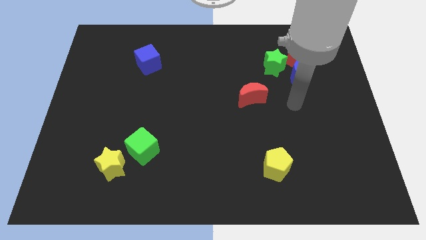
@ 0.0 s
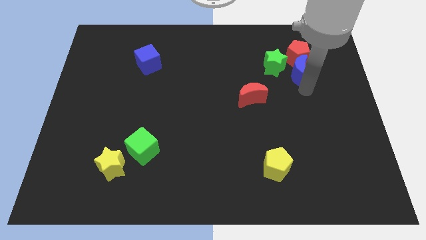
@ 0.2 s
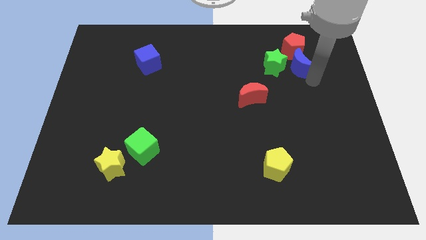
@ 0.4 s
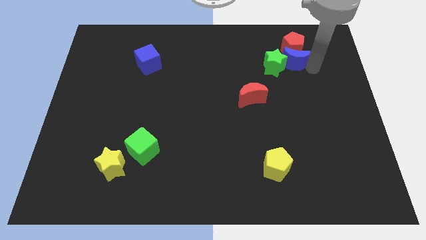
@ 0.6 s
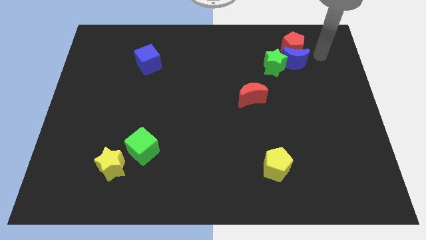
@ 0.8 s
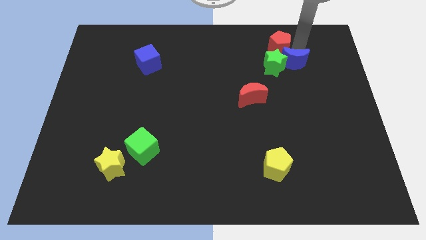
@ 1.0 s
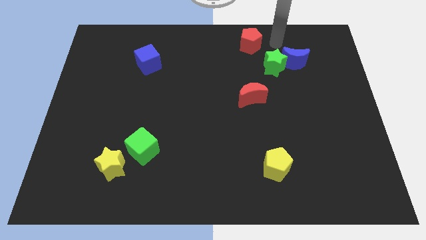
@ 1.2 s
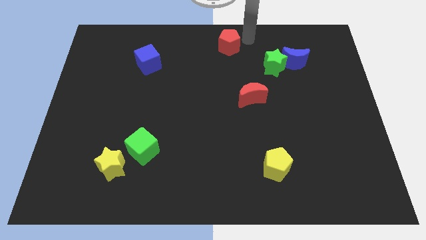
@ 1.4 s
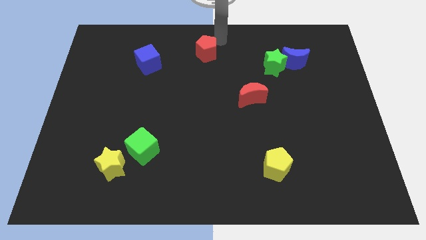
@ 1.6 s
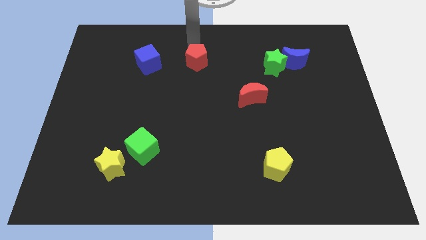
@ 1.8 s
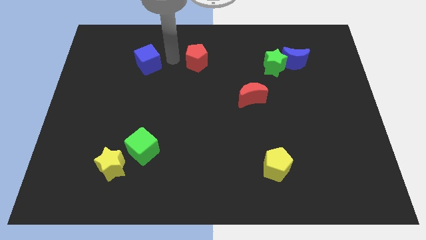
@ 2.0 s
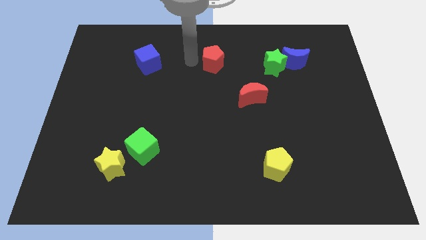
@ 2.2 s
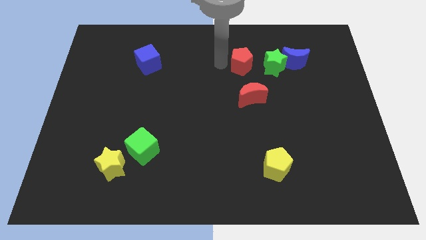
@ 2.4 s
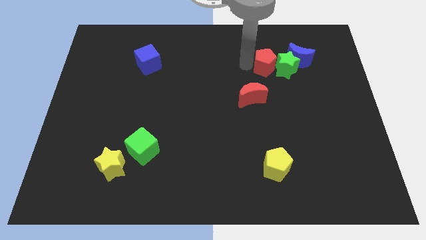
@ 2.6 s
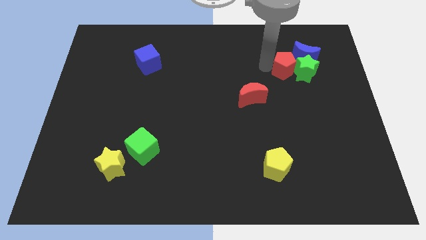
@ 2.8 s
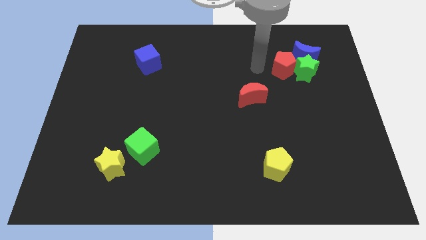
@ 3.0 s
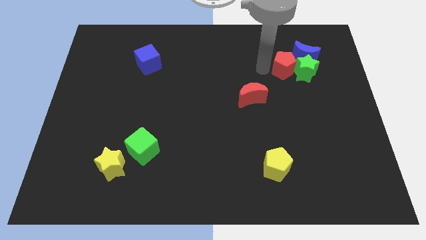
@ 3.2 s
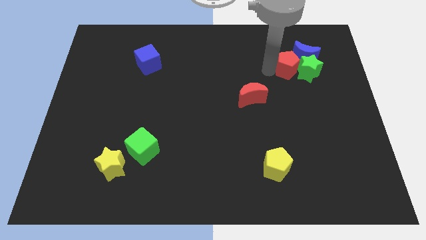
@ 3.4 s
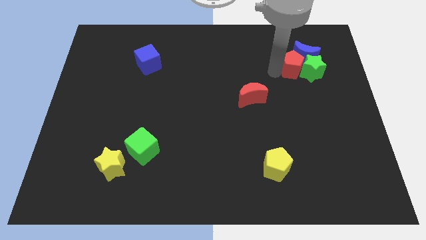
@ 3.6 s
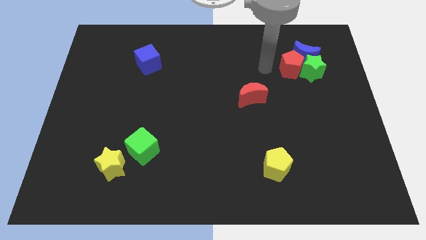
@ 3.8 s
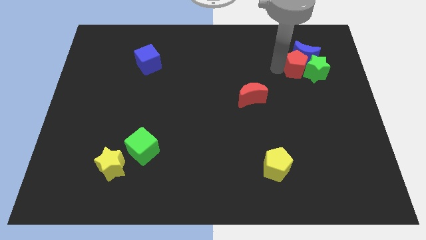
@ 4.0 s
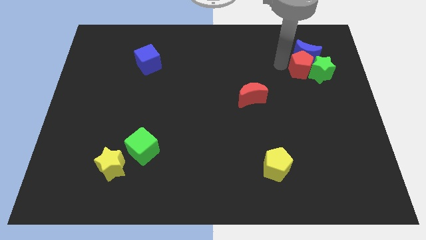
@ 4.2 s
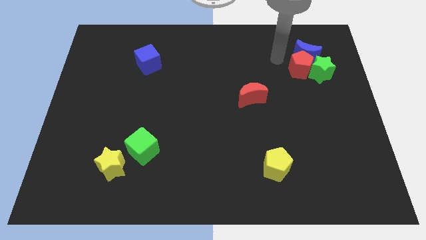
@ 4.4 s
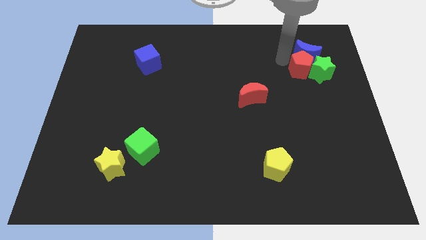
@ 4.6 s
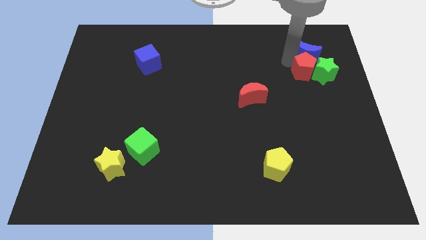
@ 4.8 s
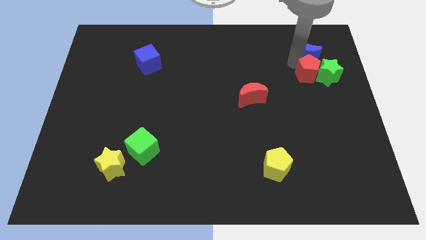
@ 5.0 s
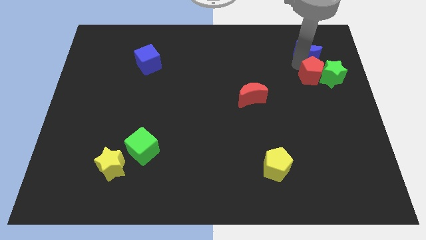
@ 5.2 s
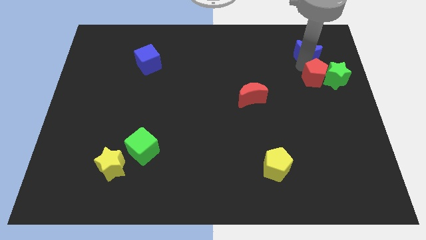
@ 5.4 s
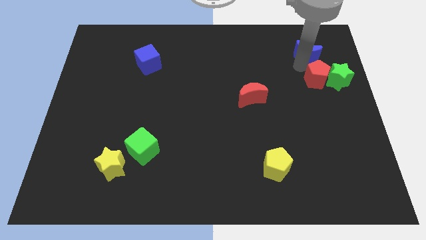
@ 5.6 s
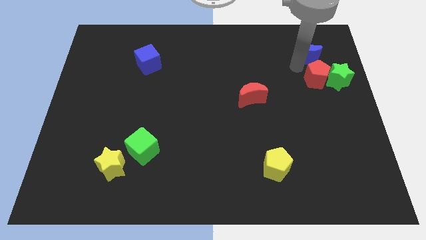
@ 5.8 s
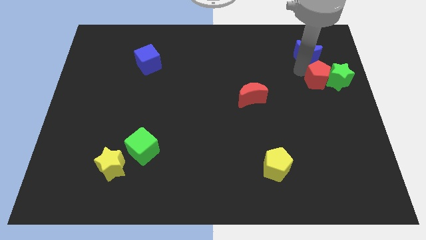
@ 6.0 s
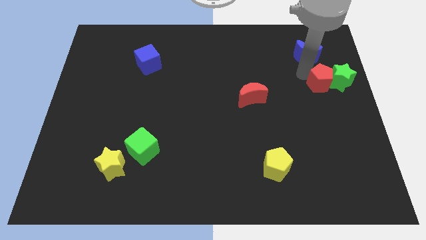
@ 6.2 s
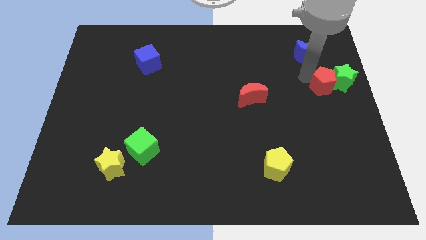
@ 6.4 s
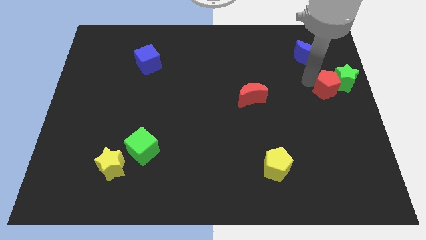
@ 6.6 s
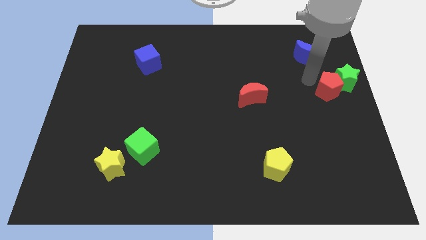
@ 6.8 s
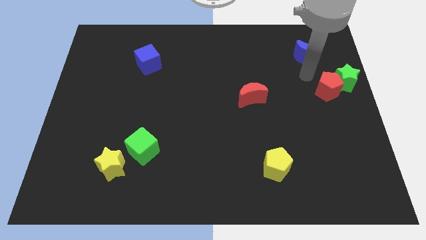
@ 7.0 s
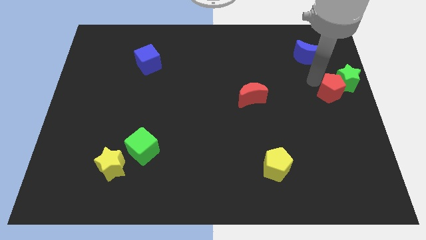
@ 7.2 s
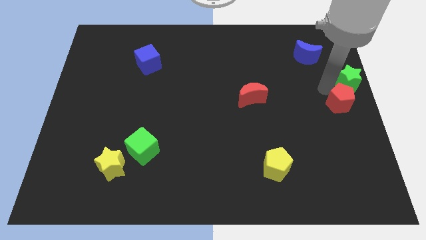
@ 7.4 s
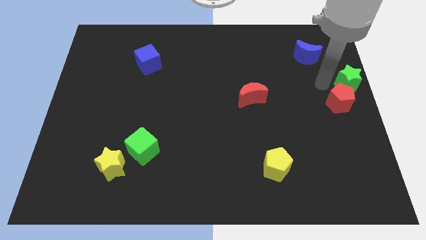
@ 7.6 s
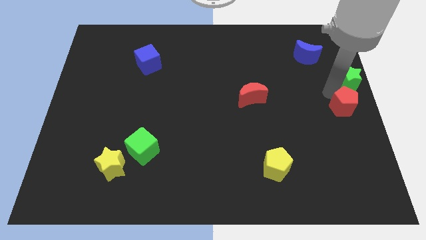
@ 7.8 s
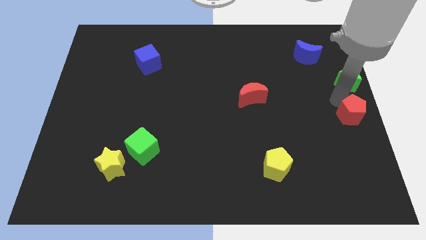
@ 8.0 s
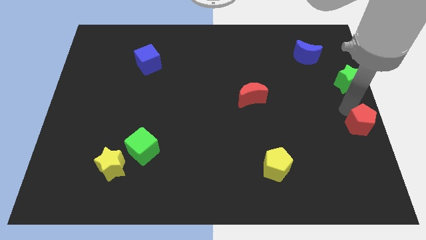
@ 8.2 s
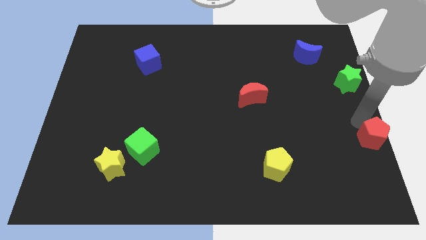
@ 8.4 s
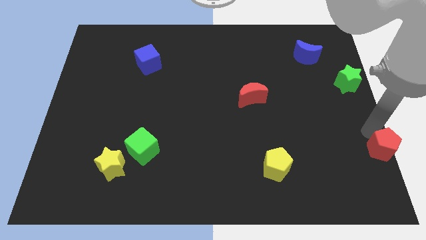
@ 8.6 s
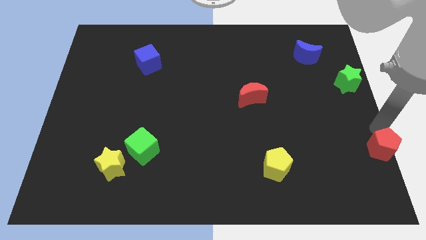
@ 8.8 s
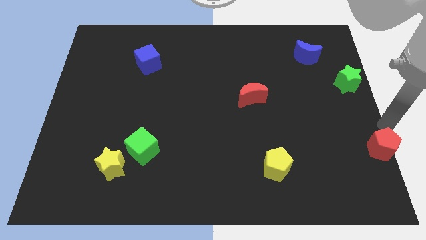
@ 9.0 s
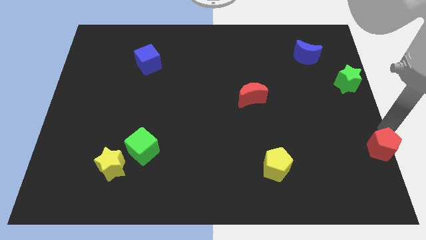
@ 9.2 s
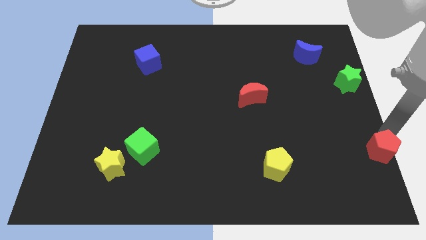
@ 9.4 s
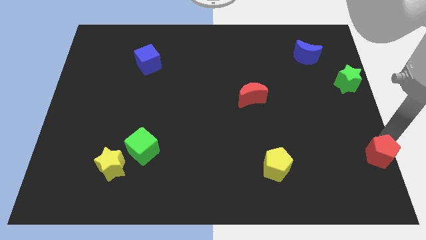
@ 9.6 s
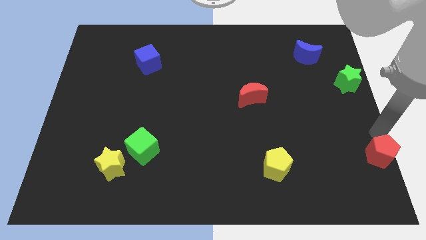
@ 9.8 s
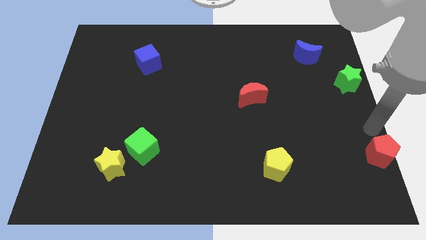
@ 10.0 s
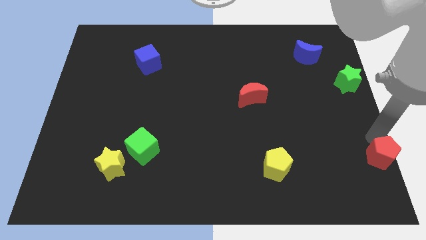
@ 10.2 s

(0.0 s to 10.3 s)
push the red pentagon to the lower right corner

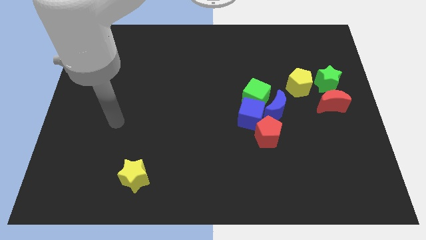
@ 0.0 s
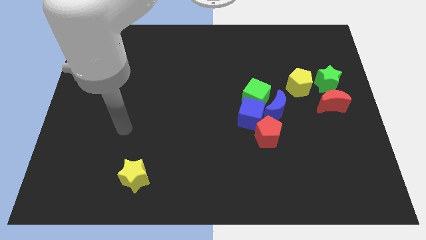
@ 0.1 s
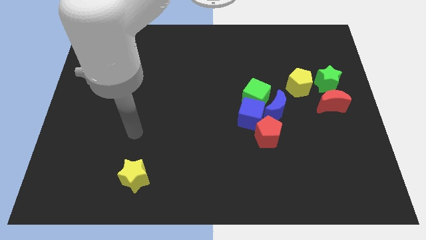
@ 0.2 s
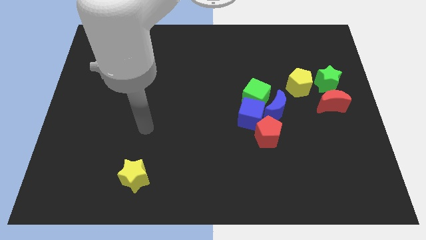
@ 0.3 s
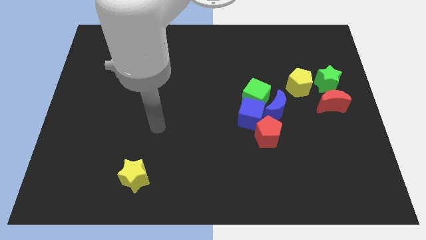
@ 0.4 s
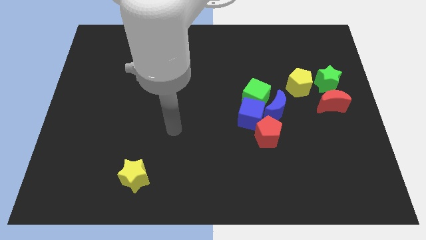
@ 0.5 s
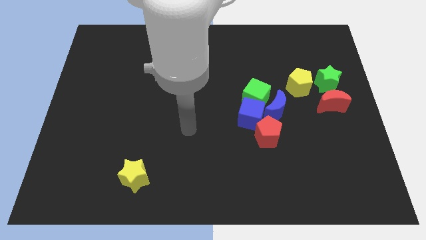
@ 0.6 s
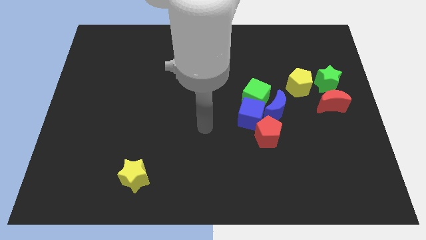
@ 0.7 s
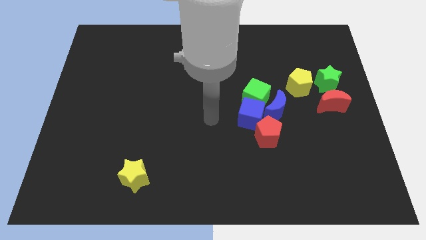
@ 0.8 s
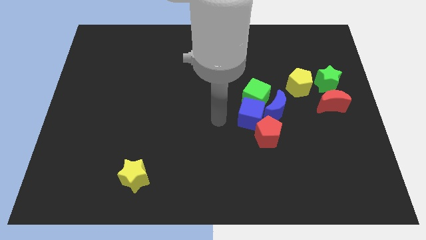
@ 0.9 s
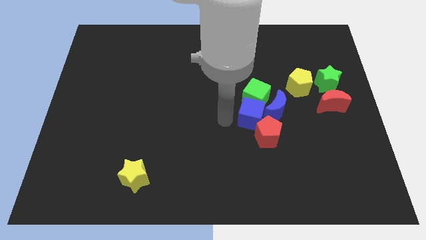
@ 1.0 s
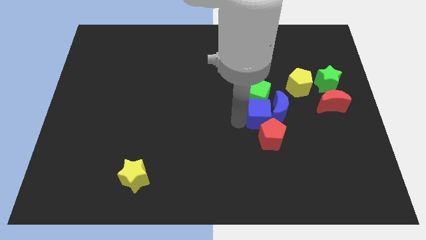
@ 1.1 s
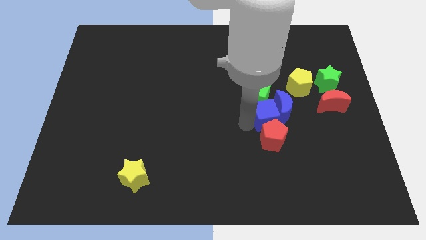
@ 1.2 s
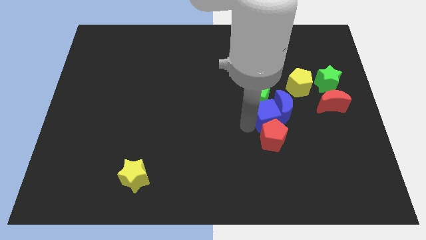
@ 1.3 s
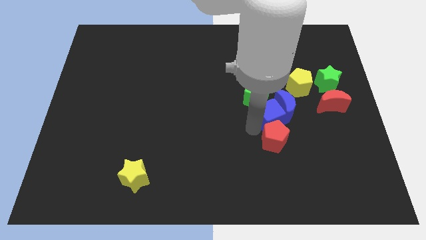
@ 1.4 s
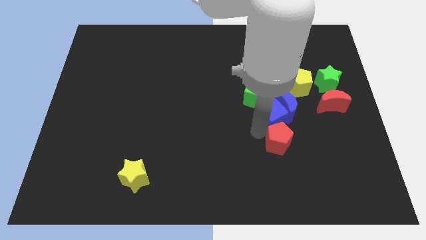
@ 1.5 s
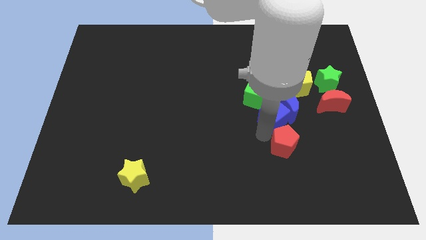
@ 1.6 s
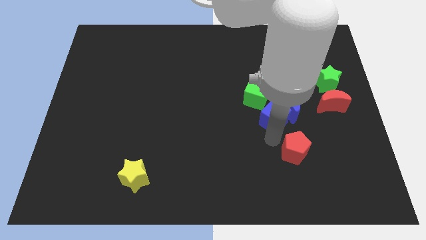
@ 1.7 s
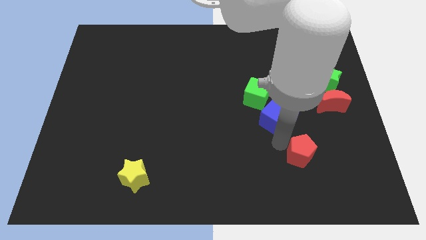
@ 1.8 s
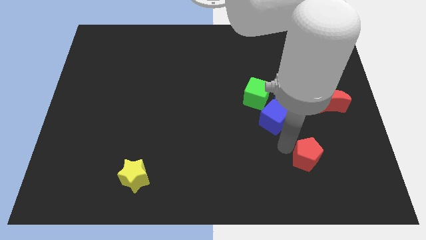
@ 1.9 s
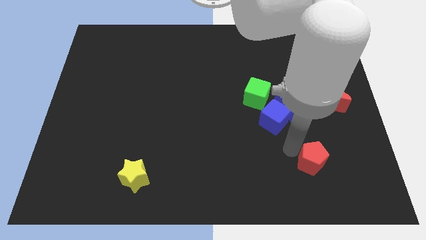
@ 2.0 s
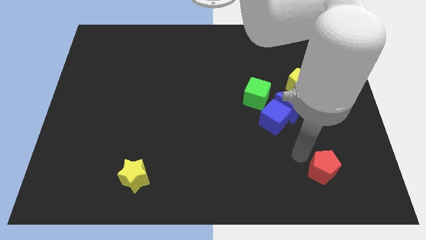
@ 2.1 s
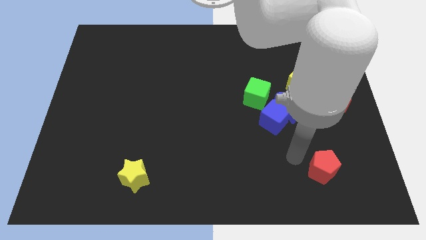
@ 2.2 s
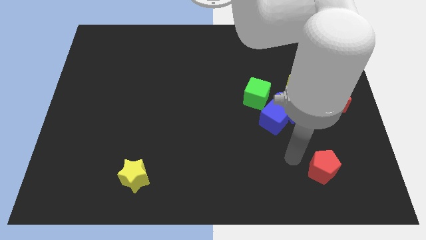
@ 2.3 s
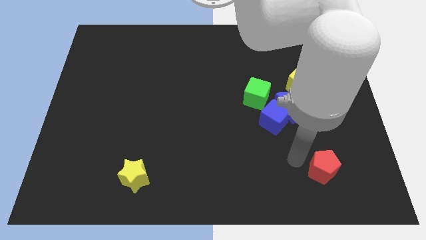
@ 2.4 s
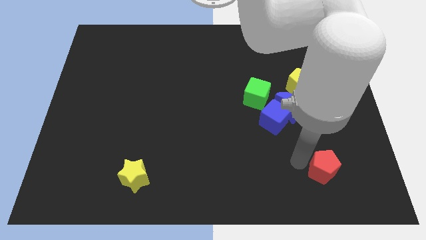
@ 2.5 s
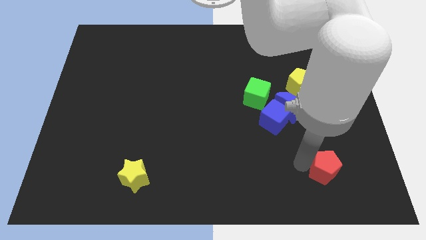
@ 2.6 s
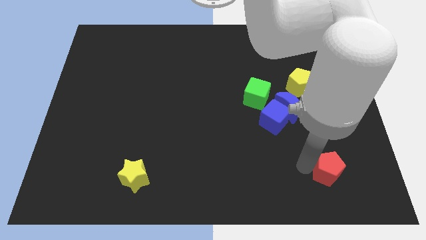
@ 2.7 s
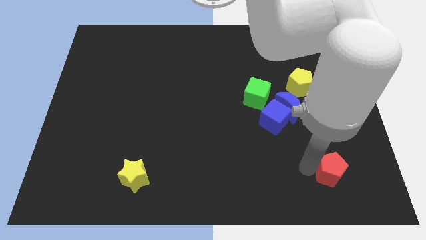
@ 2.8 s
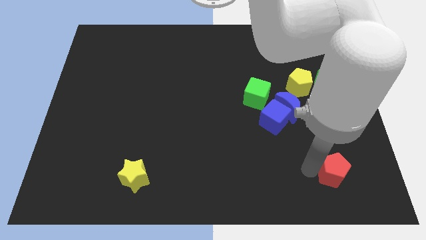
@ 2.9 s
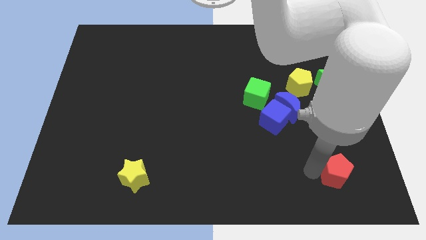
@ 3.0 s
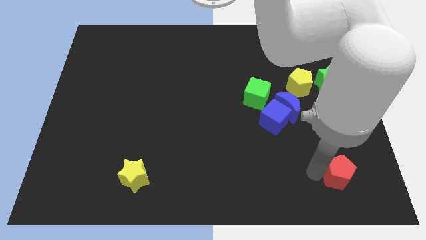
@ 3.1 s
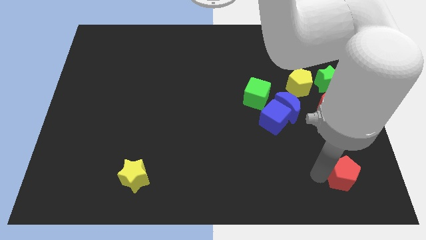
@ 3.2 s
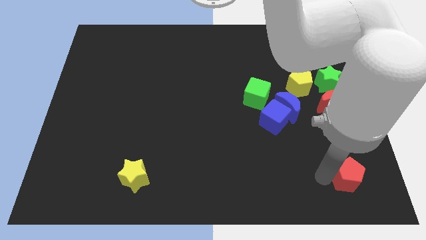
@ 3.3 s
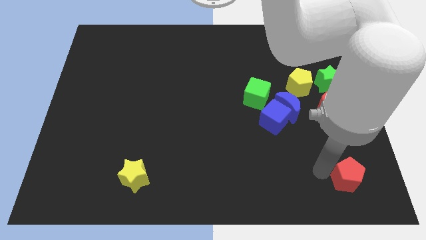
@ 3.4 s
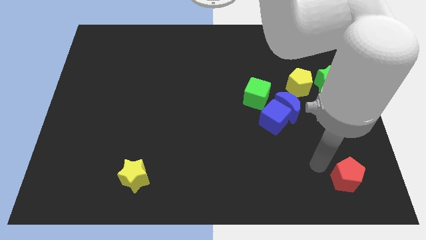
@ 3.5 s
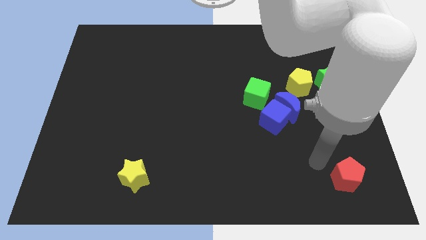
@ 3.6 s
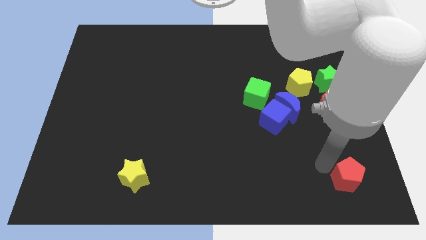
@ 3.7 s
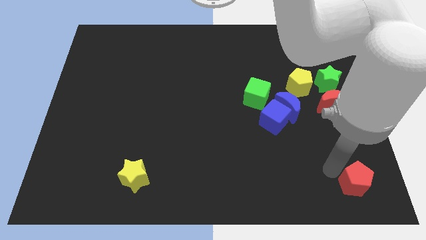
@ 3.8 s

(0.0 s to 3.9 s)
move the red pentagon to the bottom right of the board
